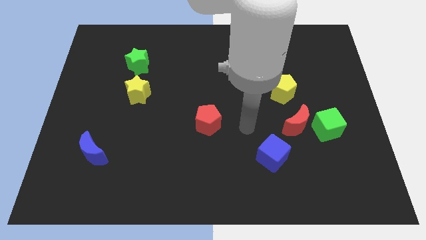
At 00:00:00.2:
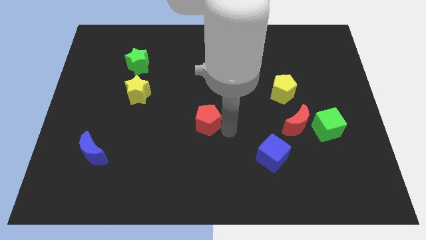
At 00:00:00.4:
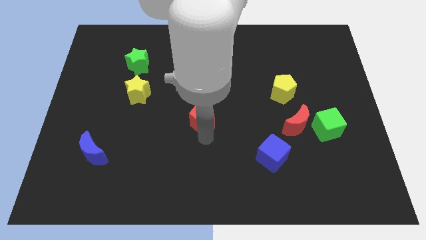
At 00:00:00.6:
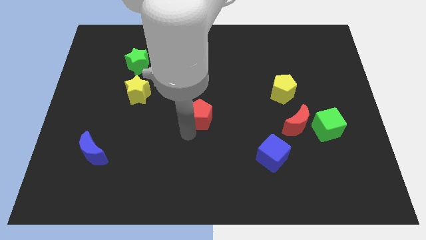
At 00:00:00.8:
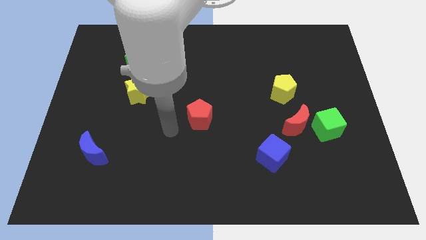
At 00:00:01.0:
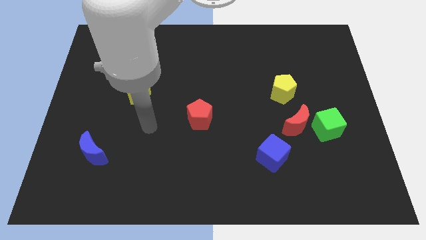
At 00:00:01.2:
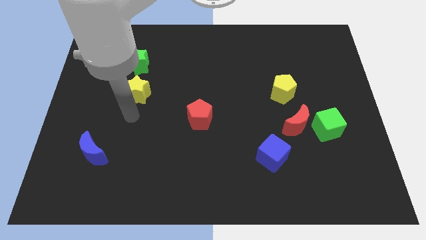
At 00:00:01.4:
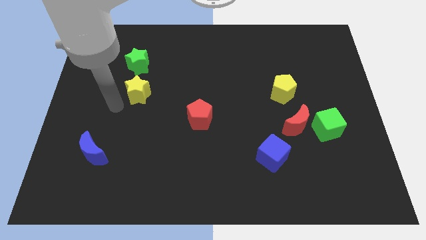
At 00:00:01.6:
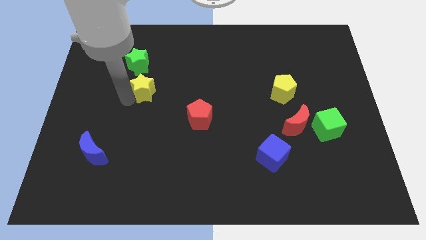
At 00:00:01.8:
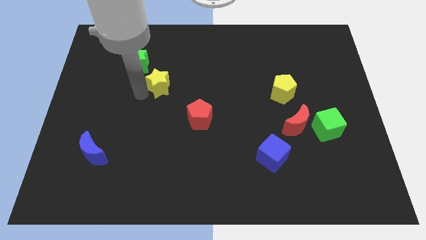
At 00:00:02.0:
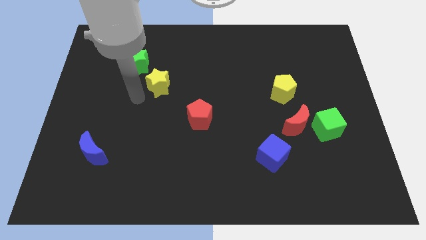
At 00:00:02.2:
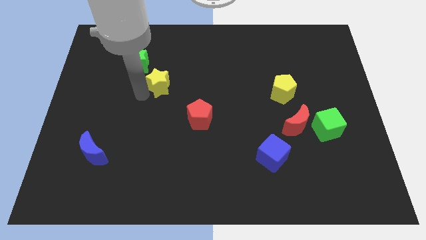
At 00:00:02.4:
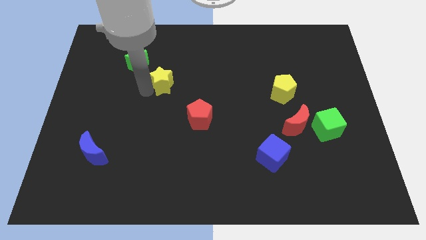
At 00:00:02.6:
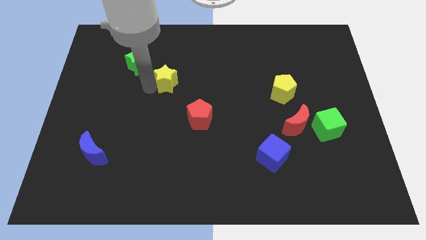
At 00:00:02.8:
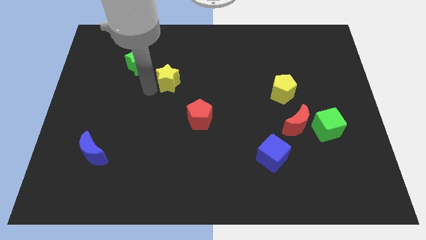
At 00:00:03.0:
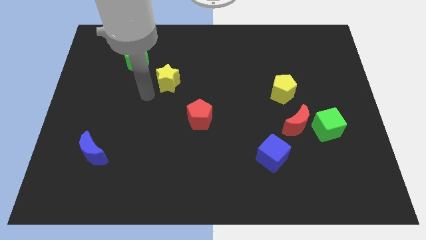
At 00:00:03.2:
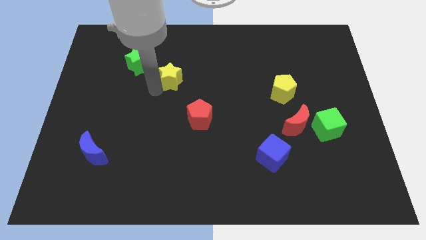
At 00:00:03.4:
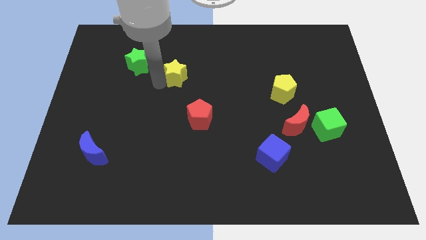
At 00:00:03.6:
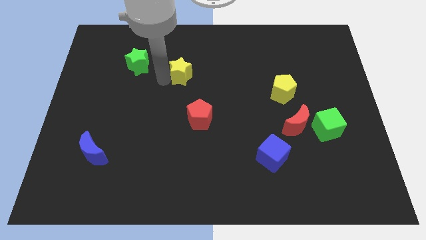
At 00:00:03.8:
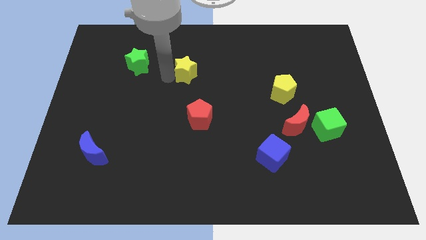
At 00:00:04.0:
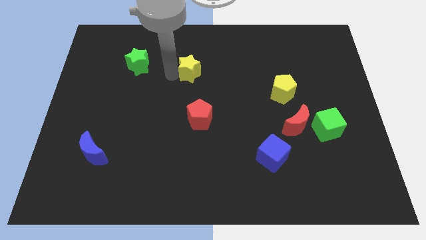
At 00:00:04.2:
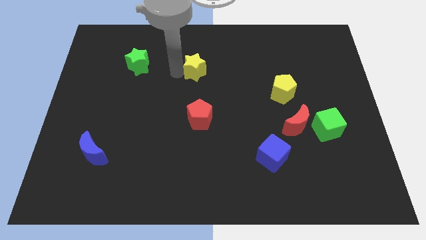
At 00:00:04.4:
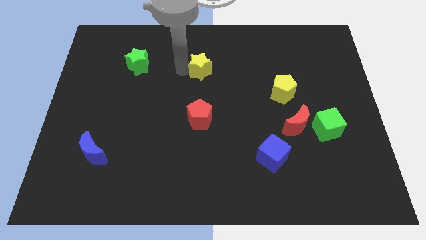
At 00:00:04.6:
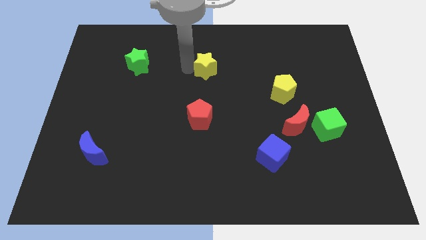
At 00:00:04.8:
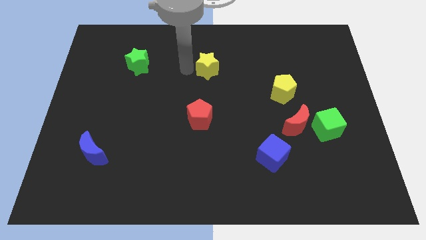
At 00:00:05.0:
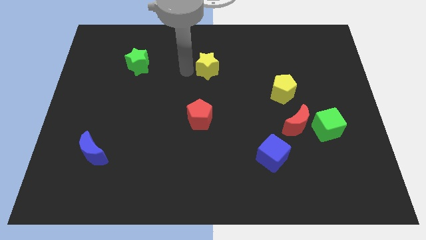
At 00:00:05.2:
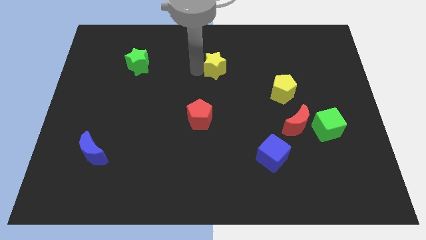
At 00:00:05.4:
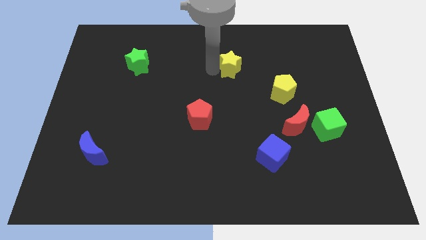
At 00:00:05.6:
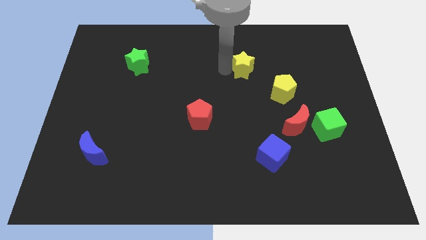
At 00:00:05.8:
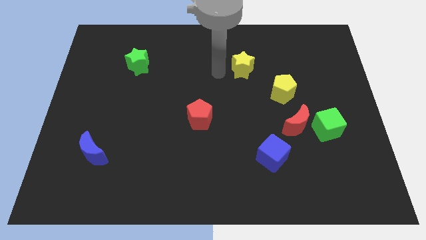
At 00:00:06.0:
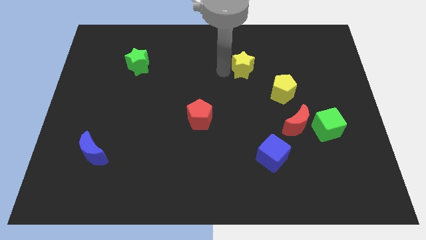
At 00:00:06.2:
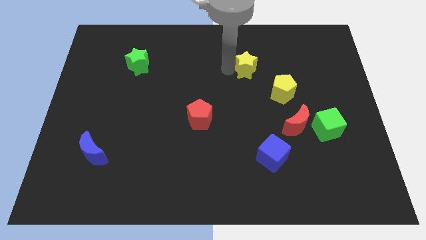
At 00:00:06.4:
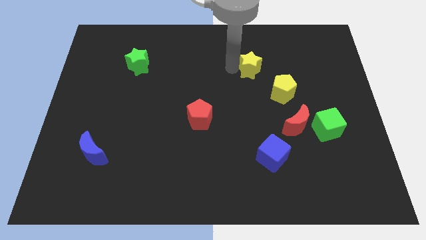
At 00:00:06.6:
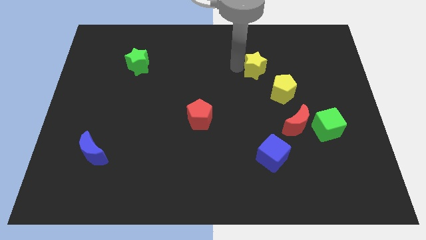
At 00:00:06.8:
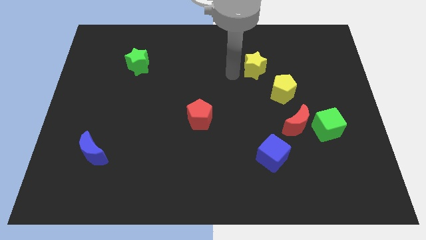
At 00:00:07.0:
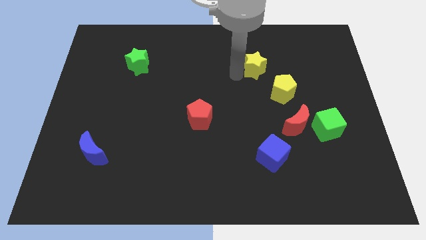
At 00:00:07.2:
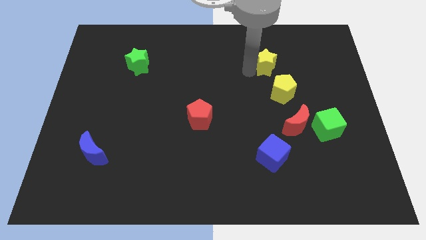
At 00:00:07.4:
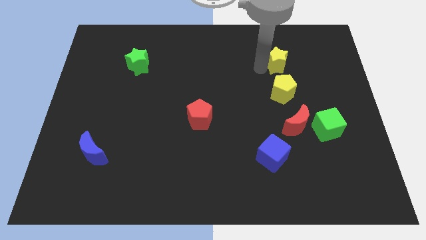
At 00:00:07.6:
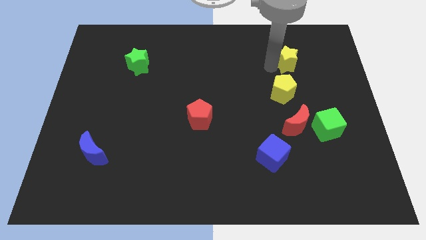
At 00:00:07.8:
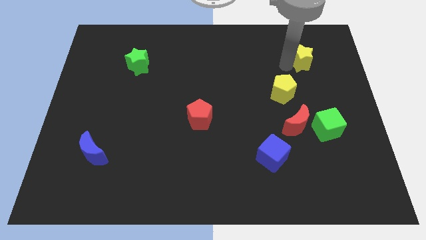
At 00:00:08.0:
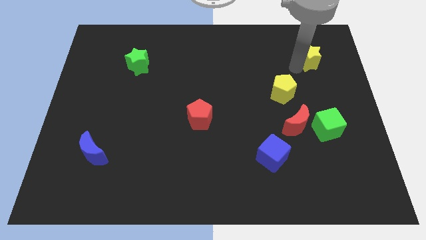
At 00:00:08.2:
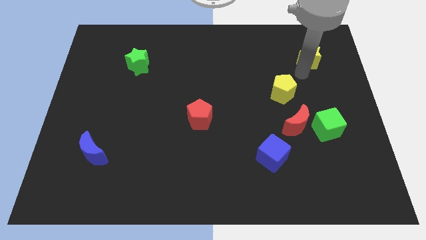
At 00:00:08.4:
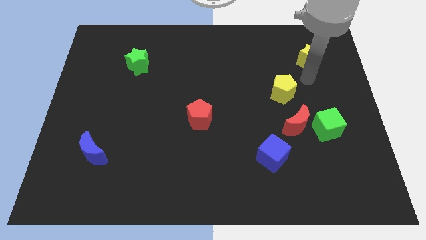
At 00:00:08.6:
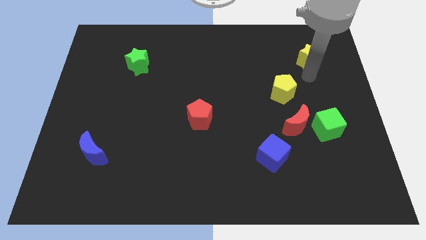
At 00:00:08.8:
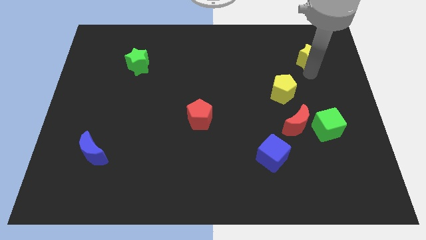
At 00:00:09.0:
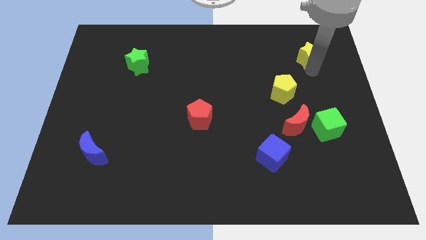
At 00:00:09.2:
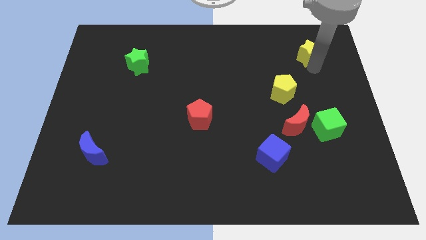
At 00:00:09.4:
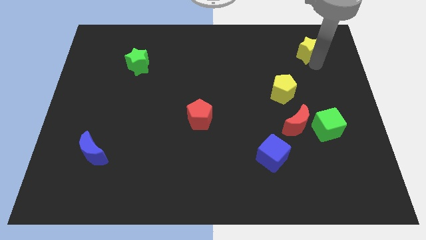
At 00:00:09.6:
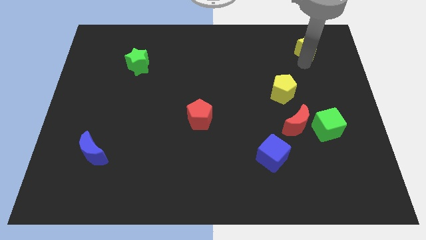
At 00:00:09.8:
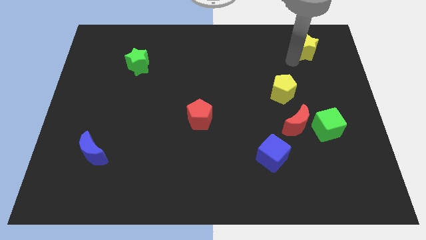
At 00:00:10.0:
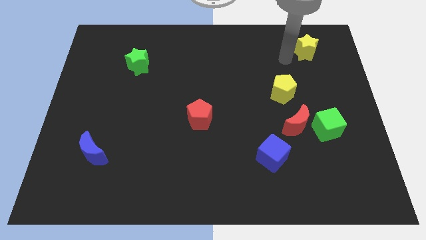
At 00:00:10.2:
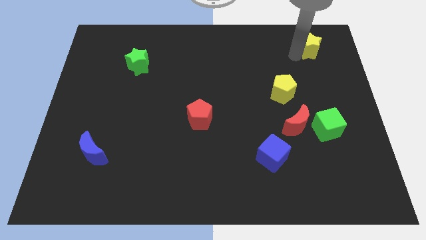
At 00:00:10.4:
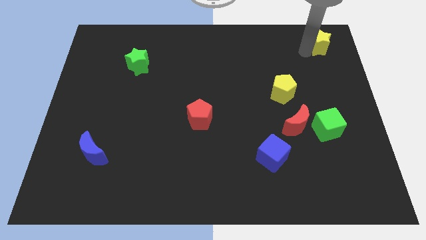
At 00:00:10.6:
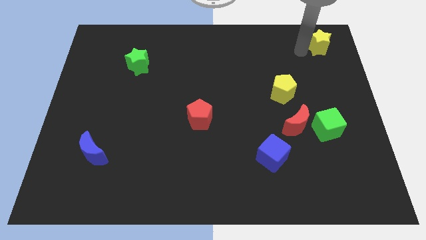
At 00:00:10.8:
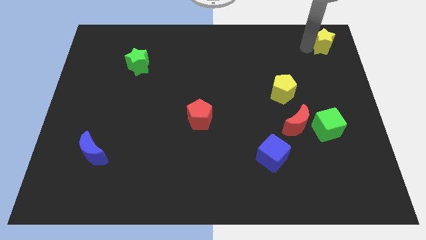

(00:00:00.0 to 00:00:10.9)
push the yellow star to the upper right corner
